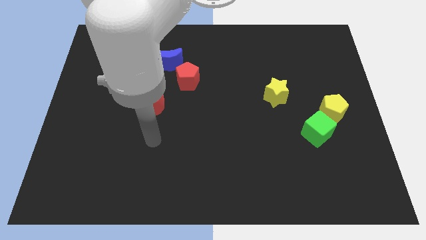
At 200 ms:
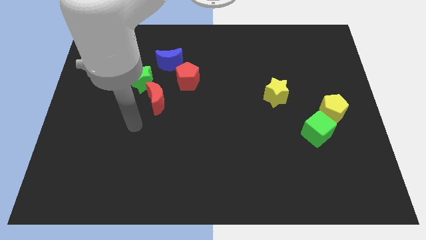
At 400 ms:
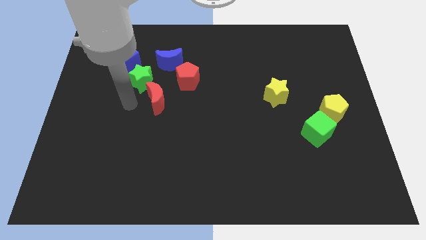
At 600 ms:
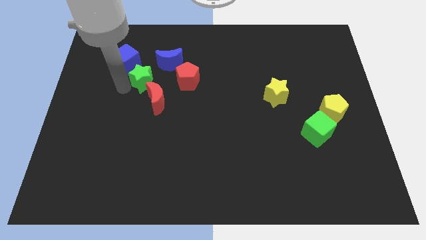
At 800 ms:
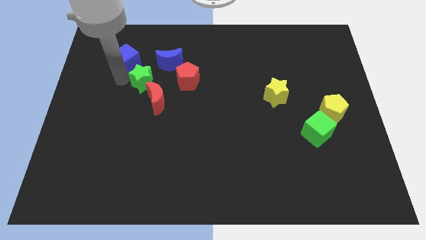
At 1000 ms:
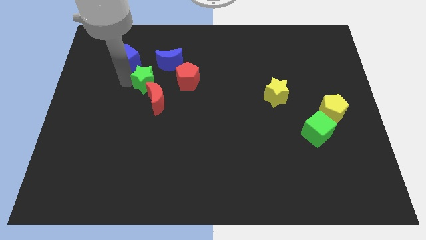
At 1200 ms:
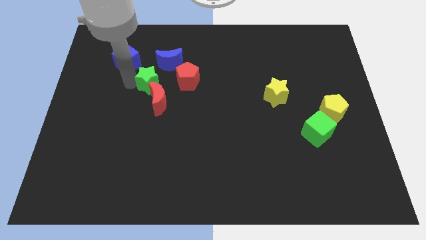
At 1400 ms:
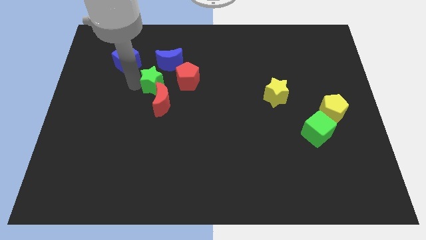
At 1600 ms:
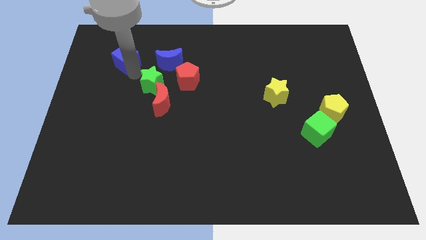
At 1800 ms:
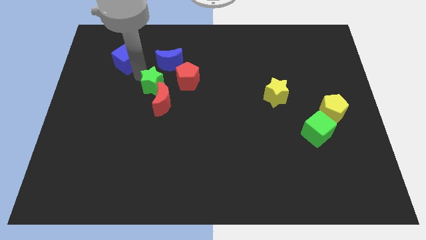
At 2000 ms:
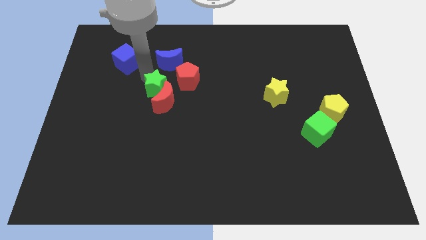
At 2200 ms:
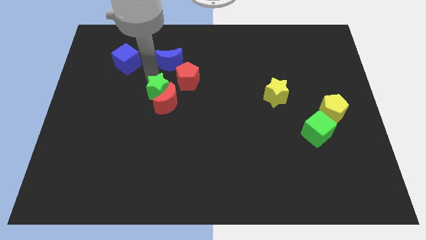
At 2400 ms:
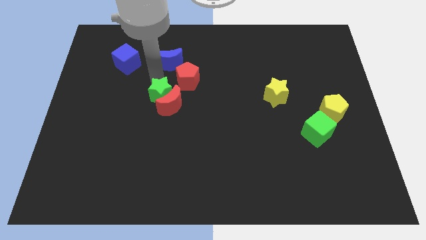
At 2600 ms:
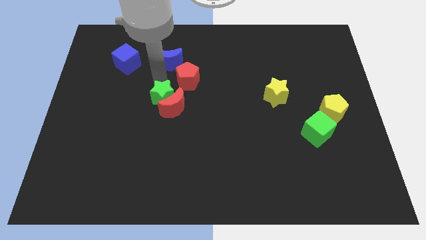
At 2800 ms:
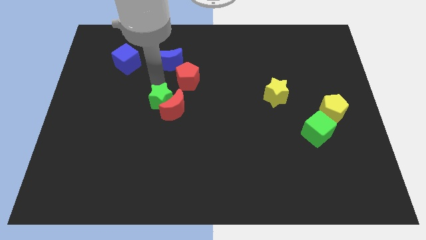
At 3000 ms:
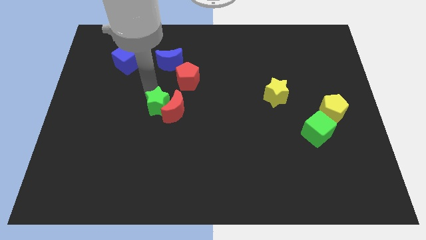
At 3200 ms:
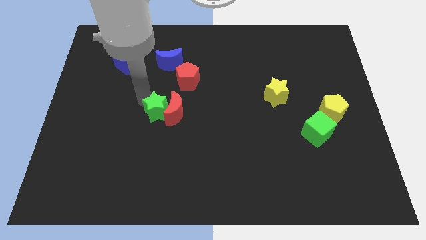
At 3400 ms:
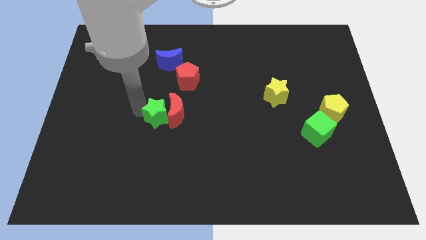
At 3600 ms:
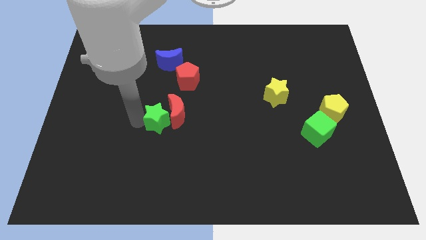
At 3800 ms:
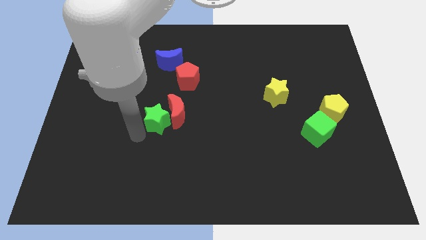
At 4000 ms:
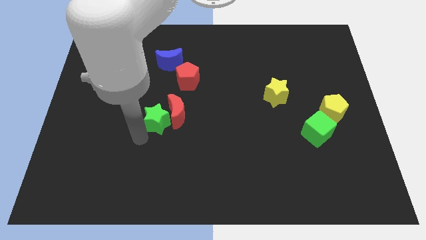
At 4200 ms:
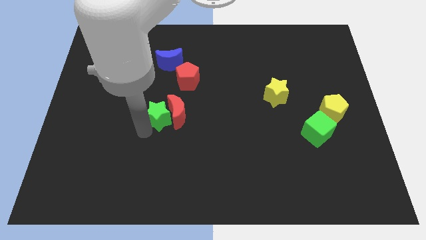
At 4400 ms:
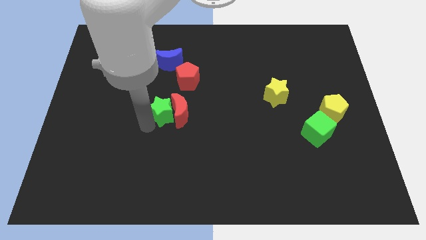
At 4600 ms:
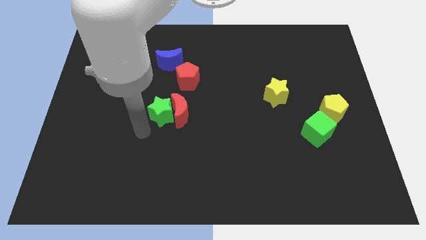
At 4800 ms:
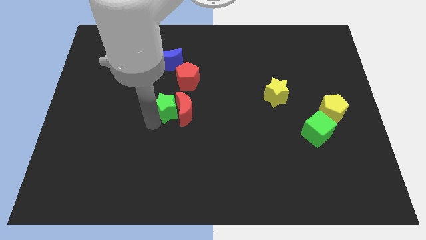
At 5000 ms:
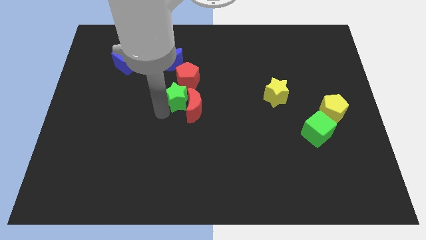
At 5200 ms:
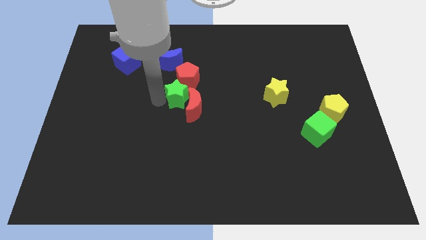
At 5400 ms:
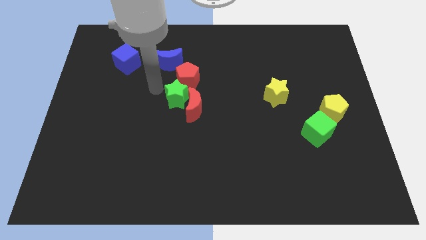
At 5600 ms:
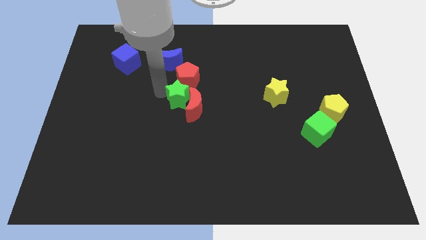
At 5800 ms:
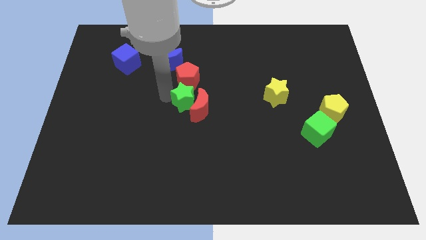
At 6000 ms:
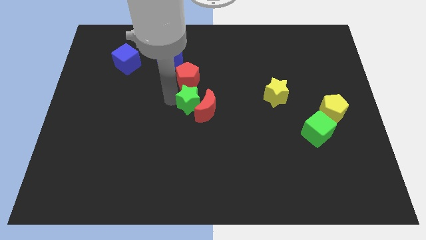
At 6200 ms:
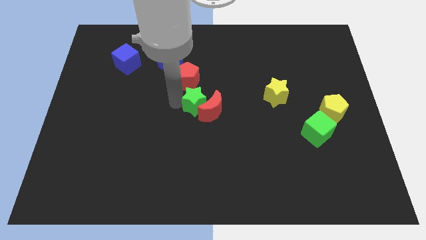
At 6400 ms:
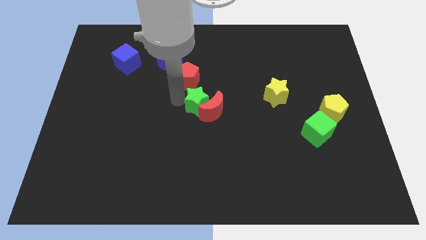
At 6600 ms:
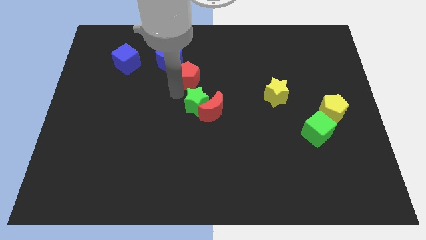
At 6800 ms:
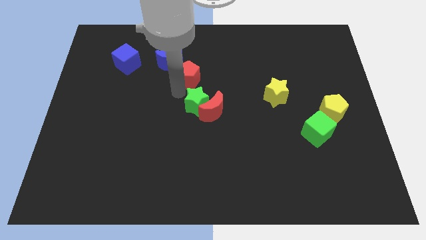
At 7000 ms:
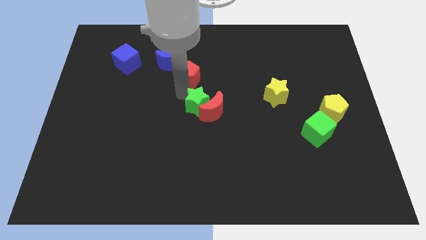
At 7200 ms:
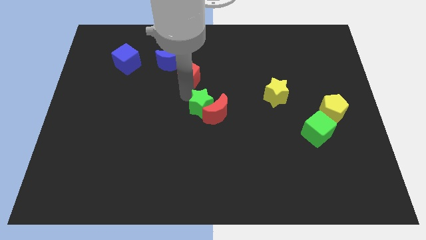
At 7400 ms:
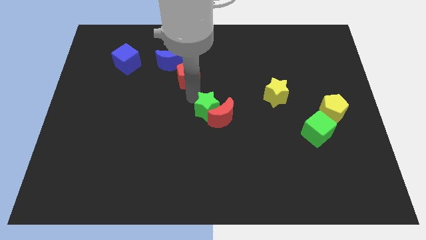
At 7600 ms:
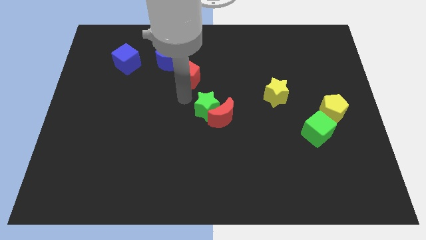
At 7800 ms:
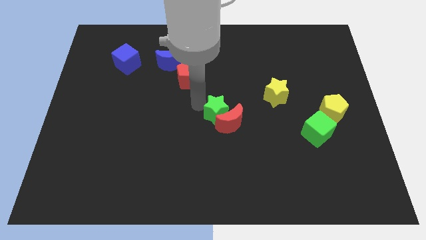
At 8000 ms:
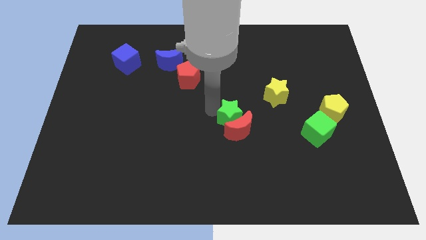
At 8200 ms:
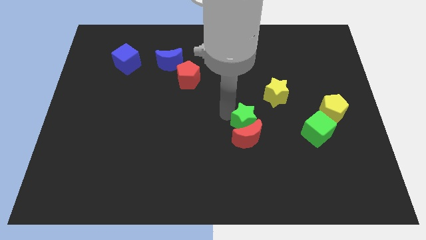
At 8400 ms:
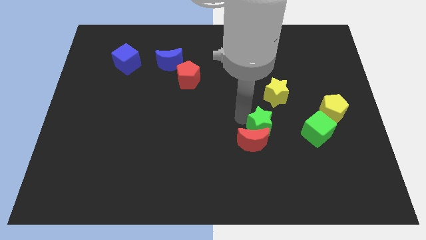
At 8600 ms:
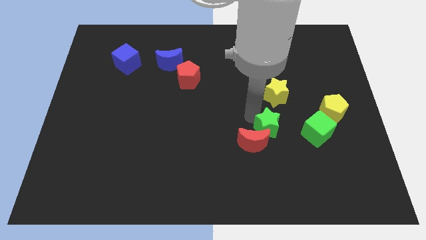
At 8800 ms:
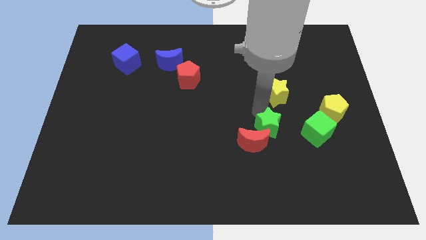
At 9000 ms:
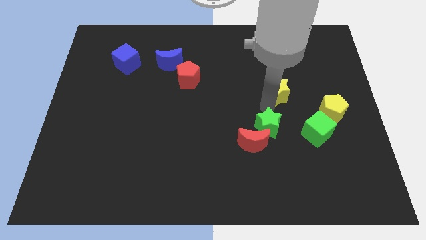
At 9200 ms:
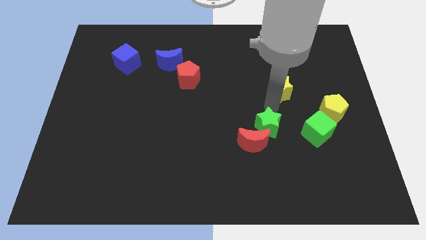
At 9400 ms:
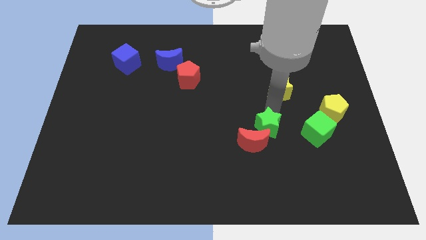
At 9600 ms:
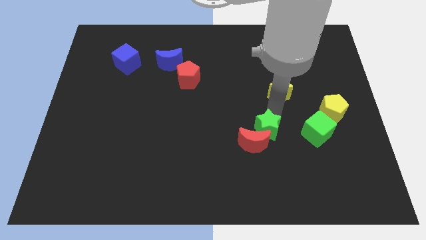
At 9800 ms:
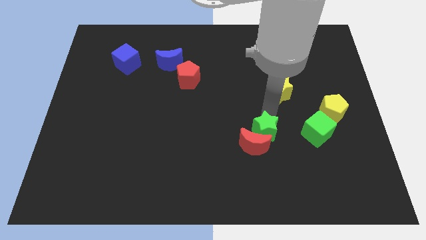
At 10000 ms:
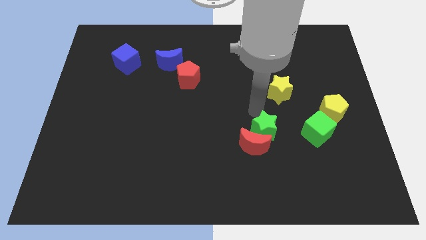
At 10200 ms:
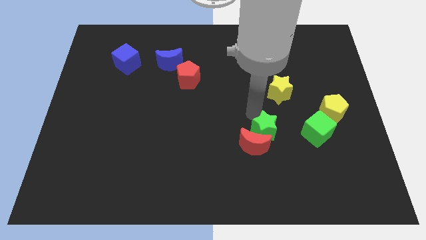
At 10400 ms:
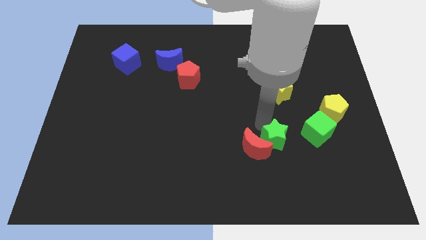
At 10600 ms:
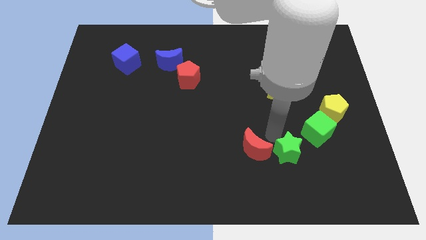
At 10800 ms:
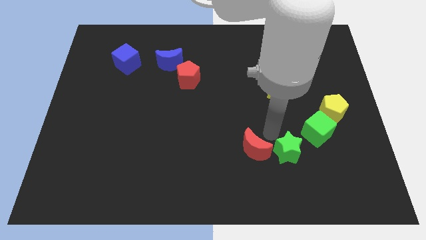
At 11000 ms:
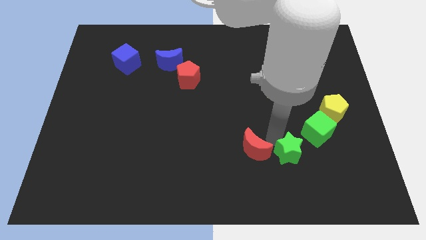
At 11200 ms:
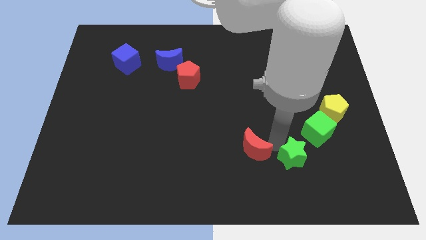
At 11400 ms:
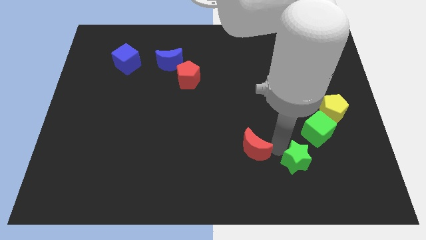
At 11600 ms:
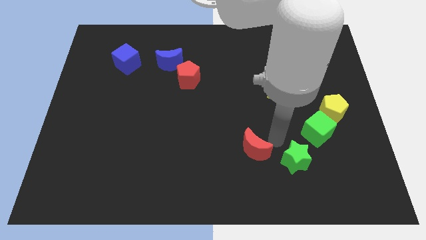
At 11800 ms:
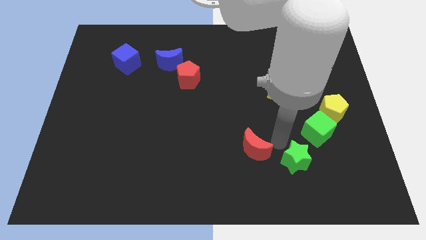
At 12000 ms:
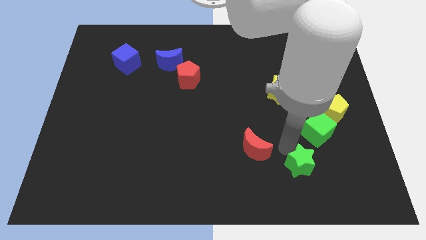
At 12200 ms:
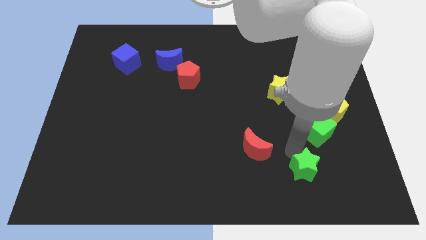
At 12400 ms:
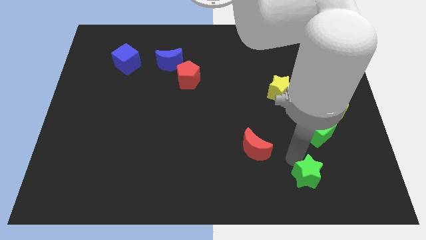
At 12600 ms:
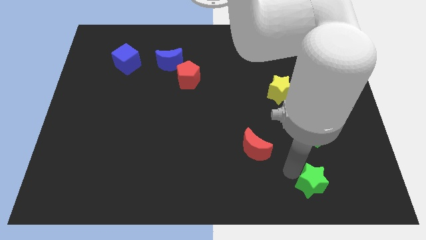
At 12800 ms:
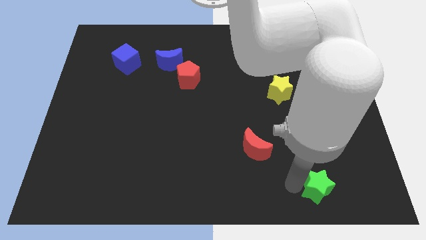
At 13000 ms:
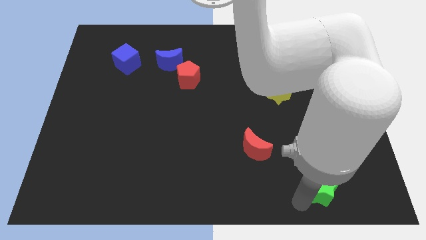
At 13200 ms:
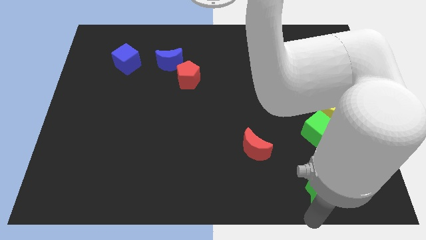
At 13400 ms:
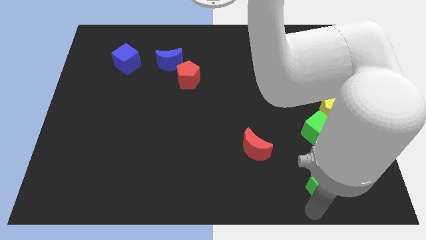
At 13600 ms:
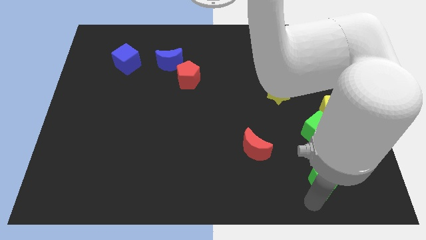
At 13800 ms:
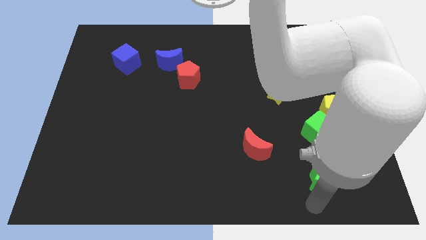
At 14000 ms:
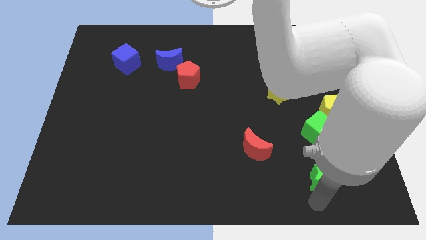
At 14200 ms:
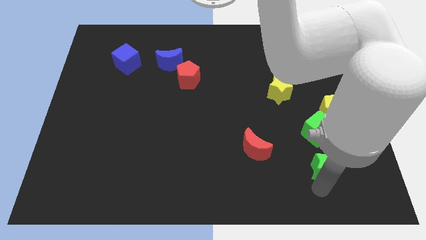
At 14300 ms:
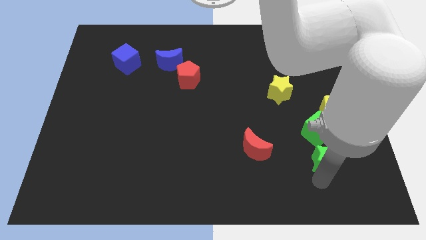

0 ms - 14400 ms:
put the green star below the yellow pentagon

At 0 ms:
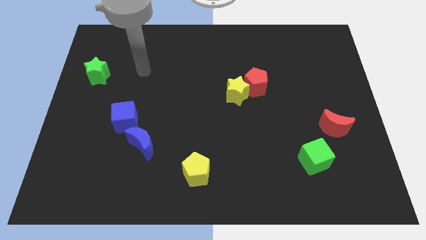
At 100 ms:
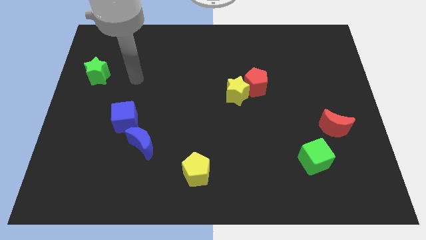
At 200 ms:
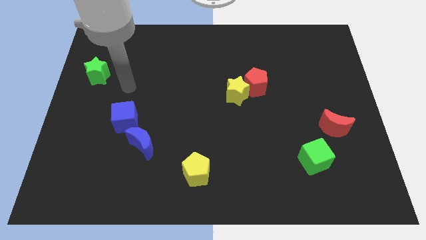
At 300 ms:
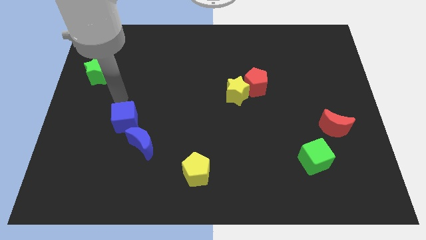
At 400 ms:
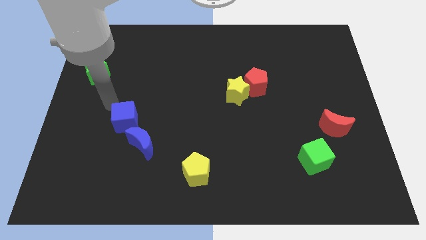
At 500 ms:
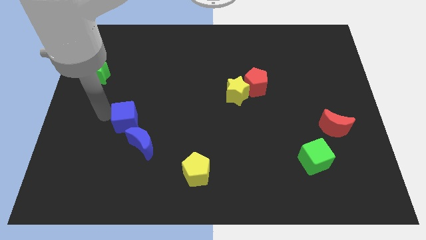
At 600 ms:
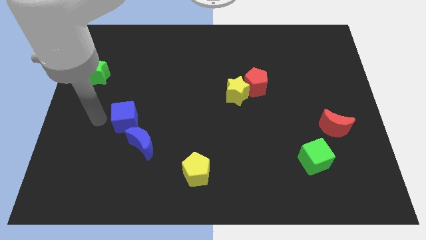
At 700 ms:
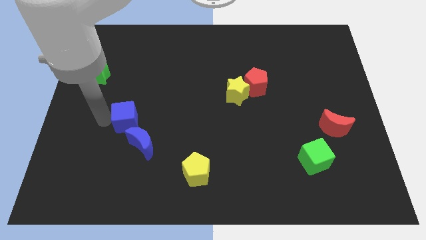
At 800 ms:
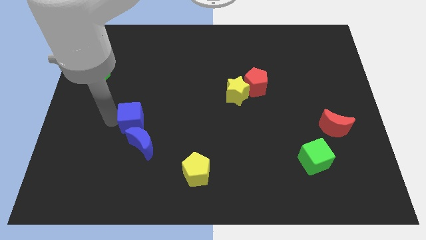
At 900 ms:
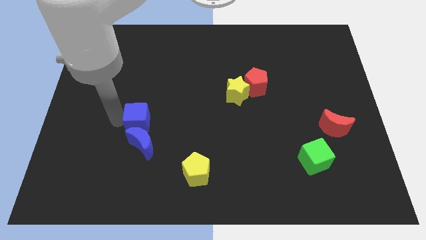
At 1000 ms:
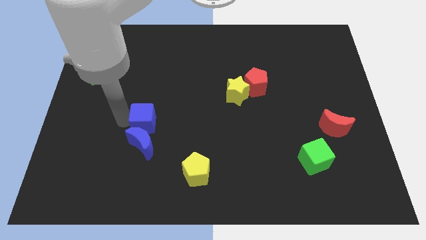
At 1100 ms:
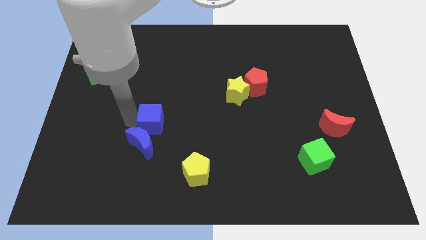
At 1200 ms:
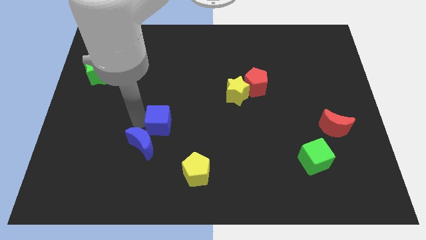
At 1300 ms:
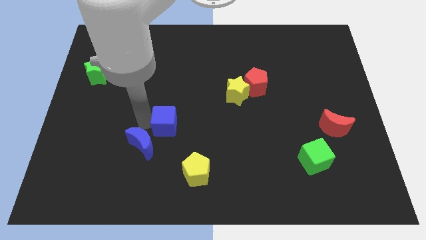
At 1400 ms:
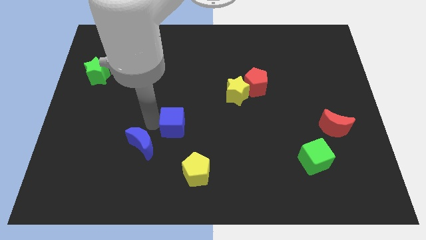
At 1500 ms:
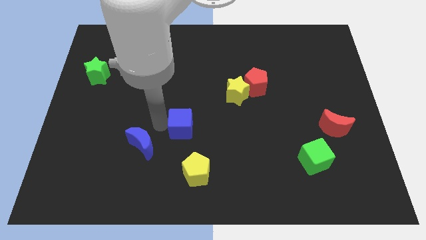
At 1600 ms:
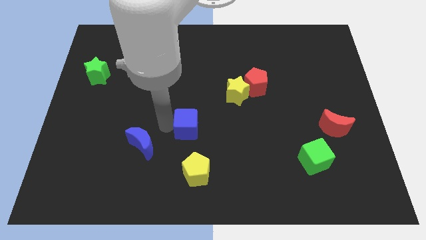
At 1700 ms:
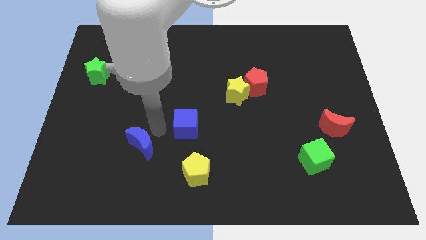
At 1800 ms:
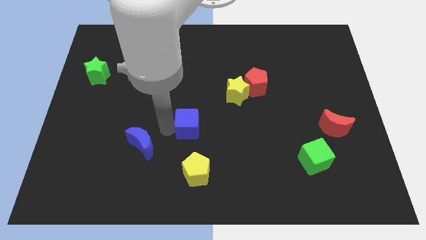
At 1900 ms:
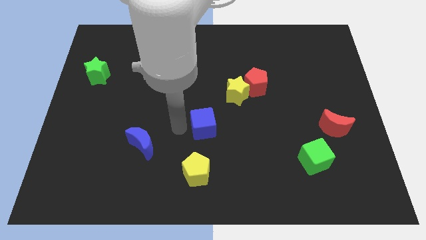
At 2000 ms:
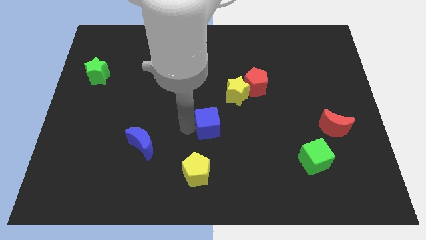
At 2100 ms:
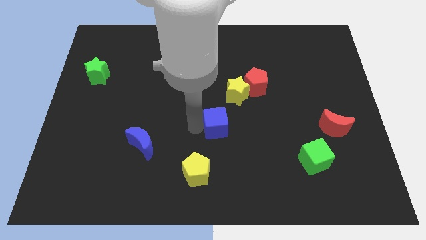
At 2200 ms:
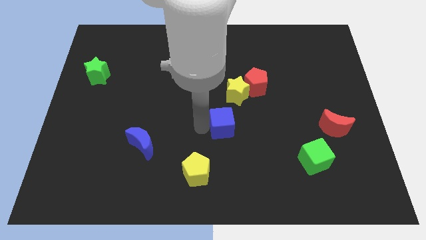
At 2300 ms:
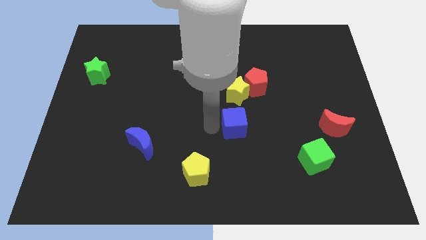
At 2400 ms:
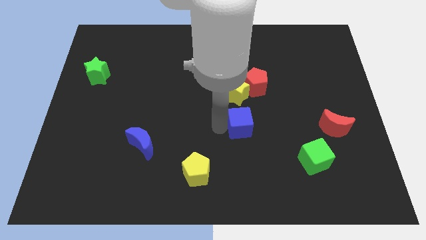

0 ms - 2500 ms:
slide the blue cube to the bottom side of the red pentagon
